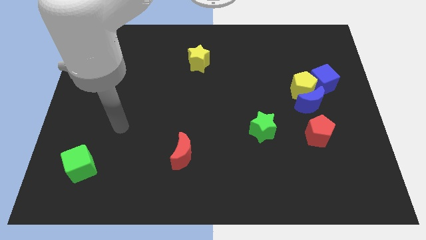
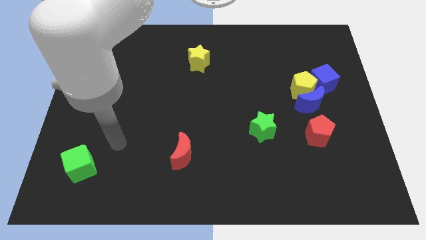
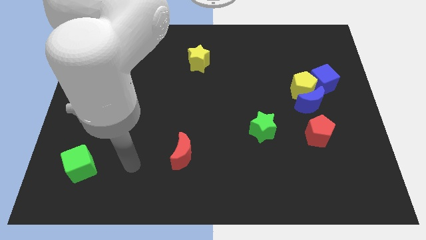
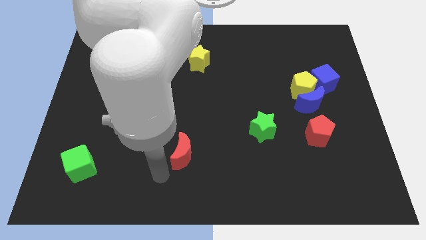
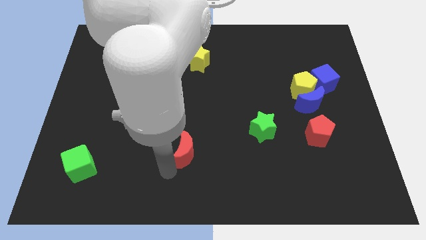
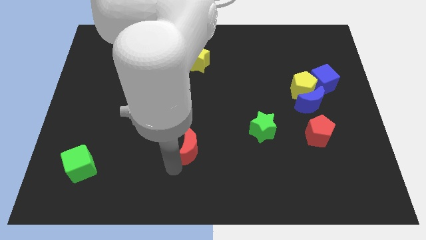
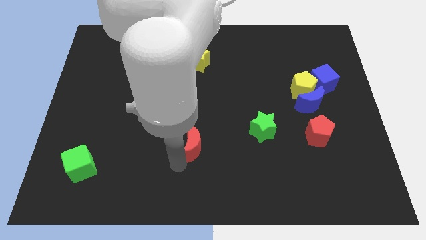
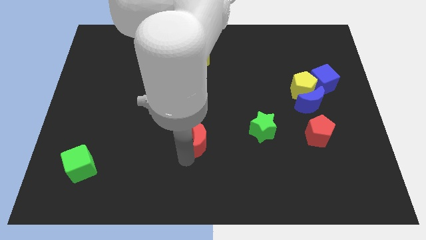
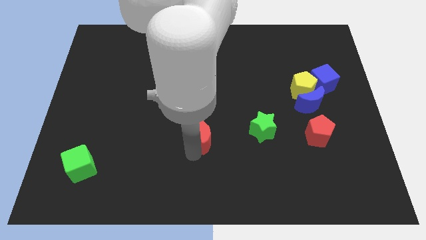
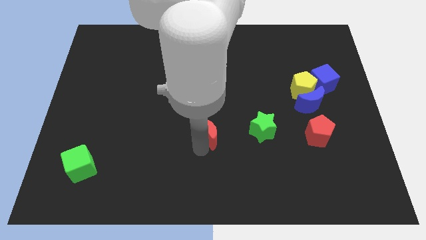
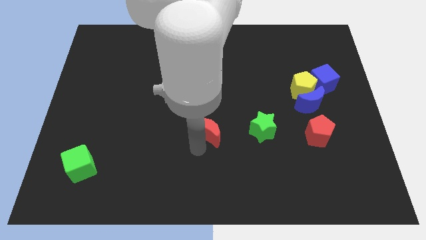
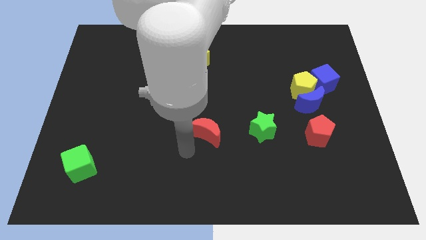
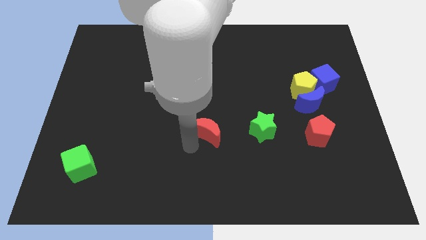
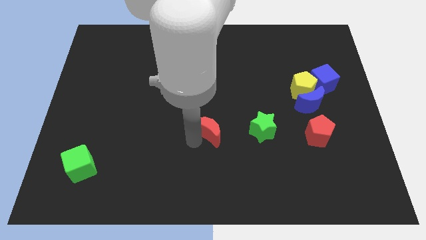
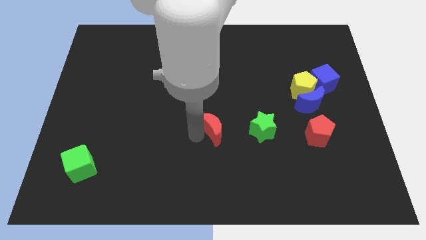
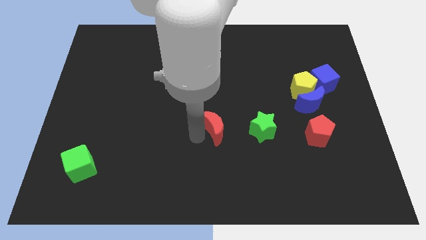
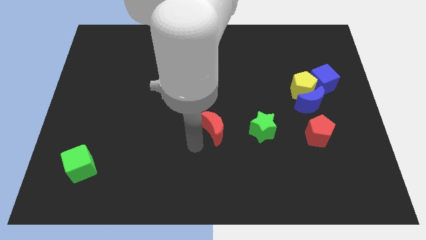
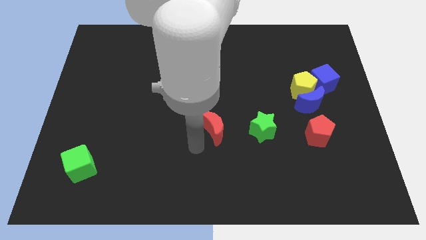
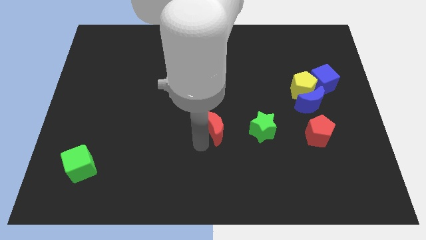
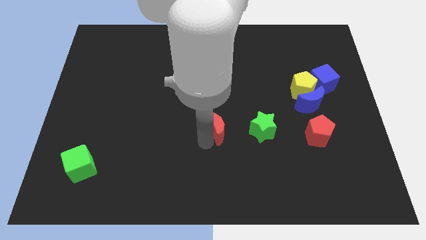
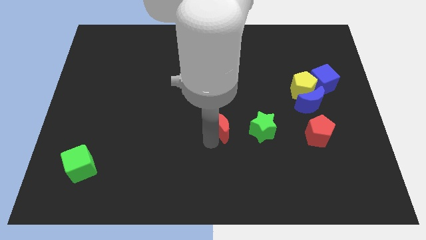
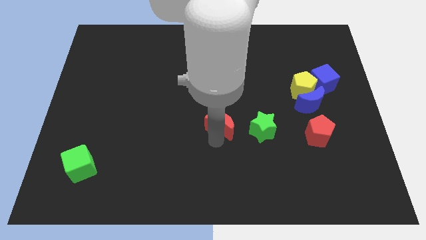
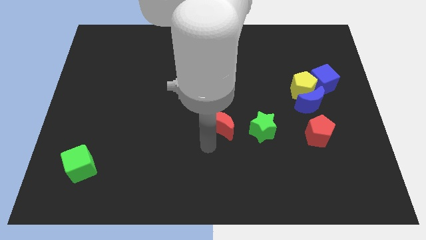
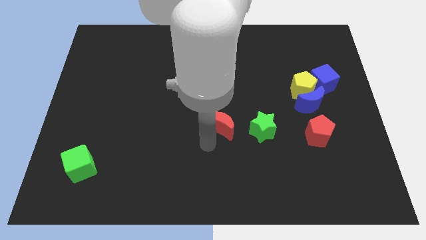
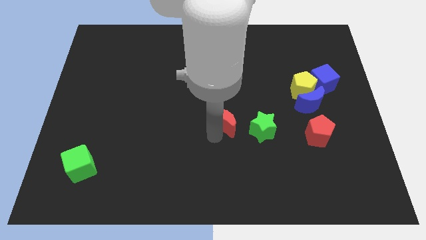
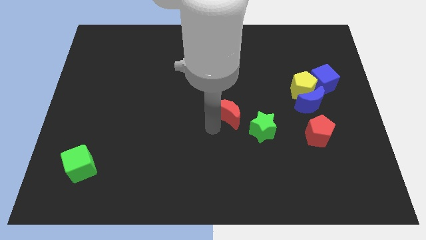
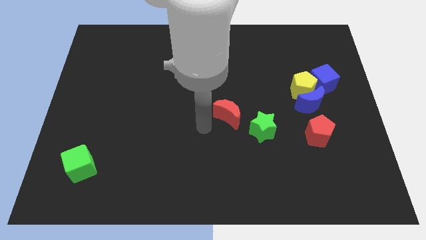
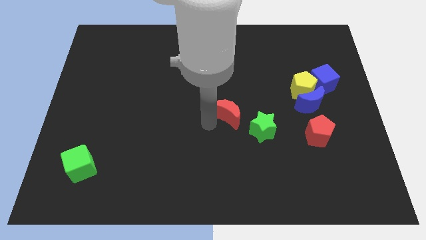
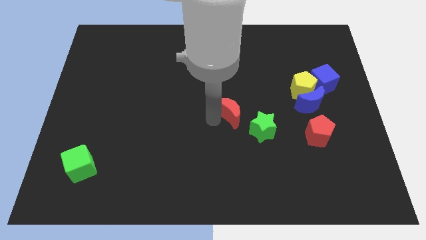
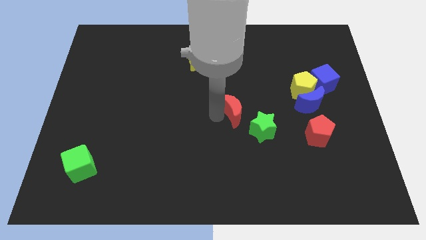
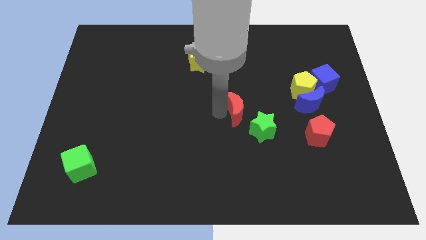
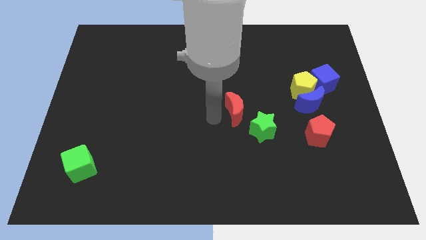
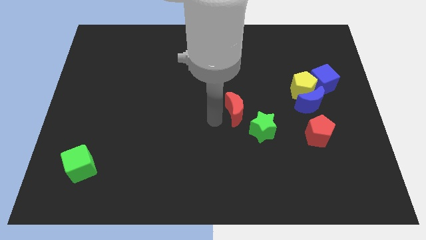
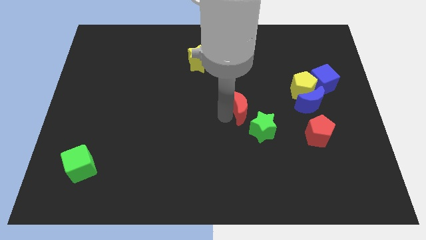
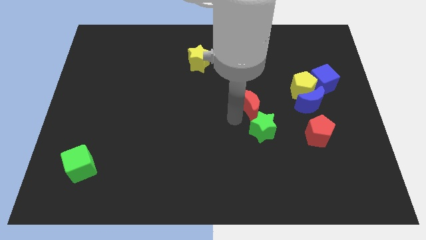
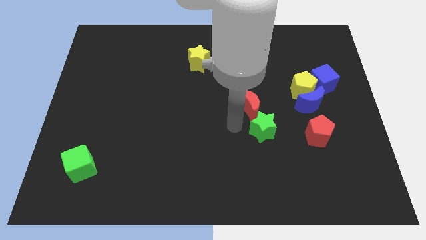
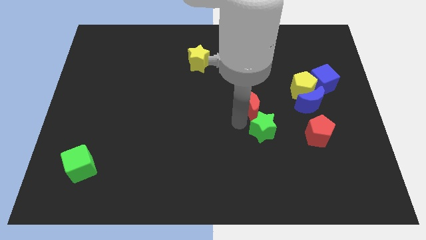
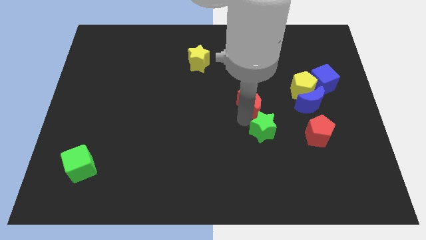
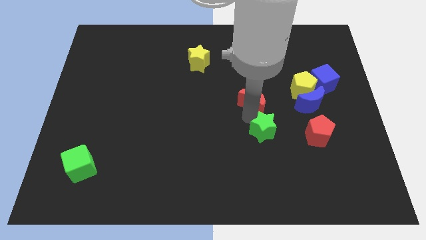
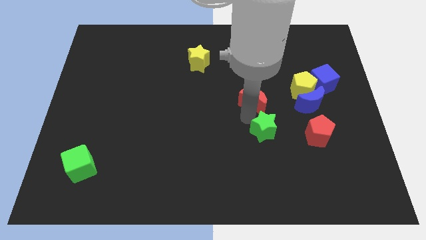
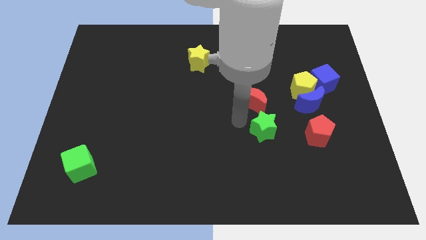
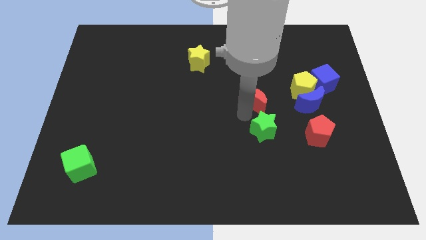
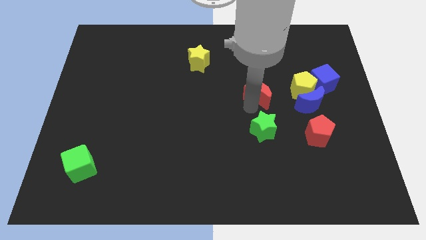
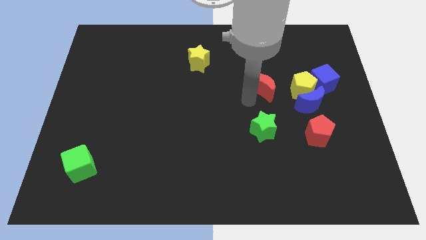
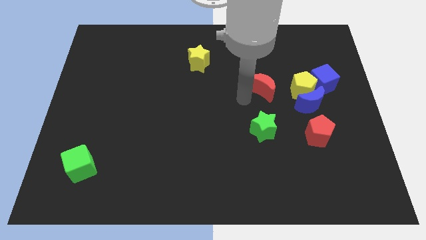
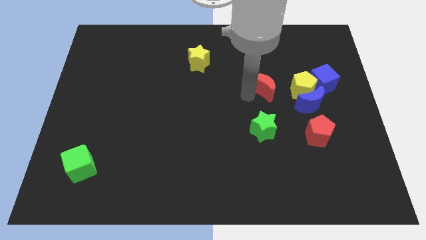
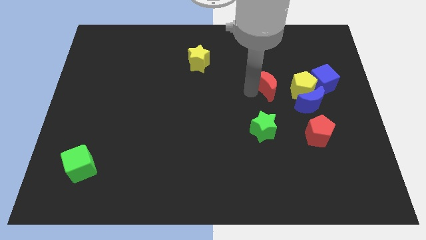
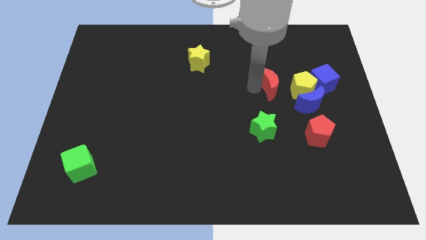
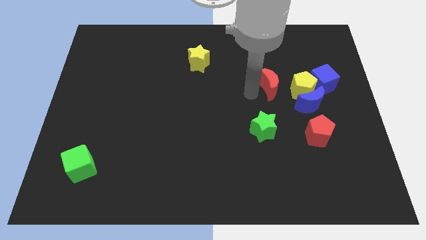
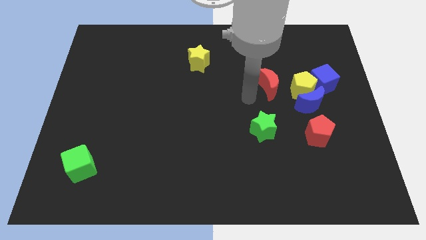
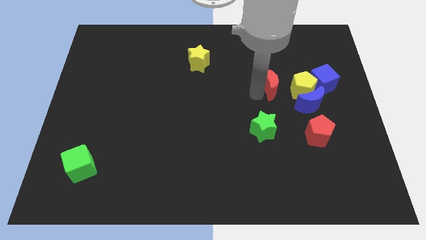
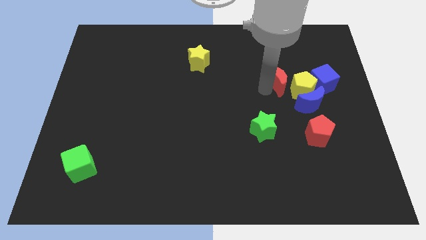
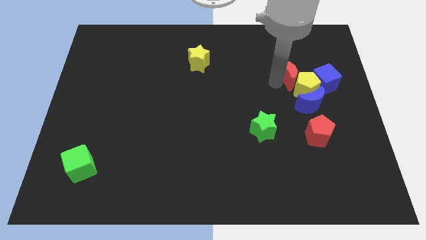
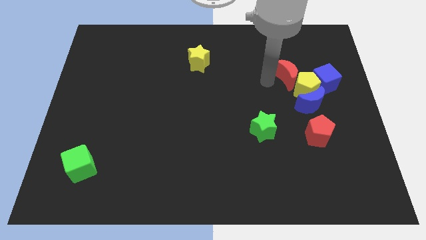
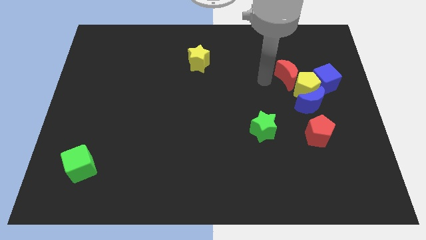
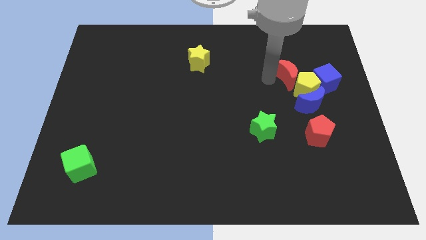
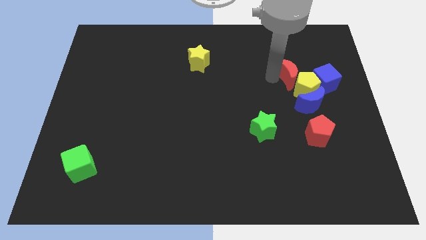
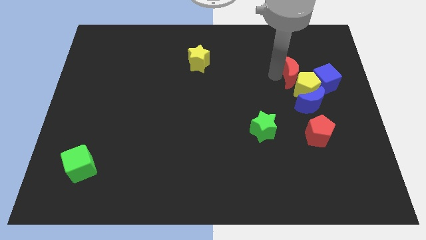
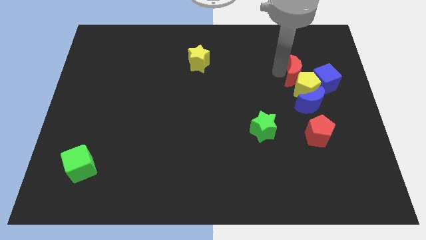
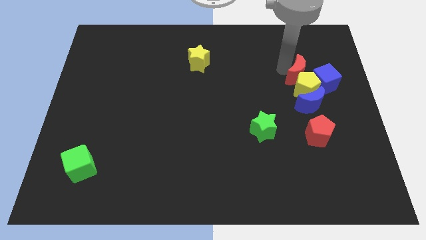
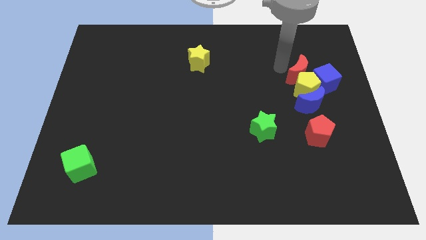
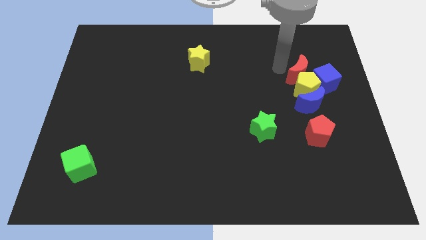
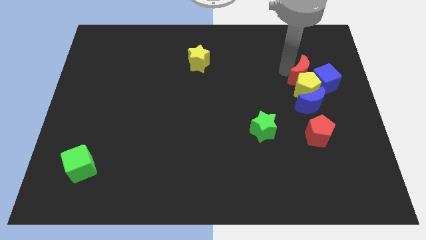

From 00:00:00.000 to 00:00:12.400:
push the red moon towards the blue cube

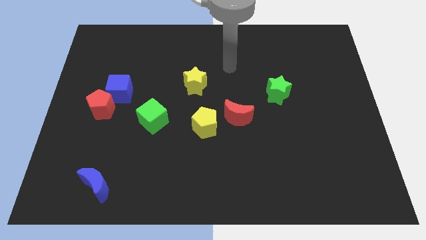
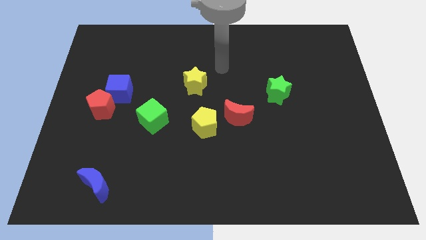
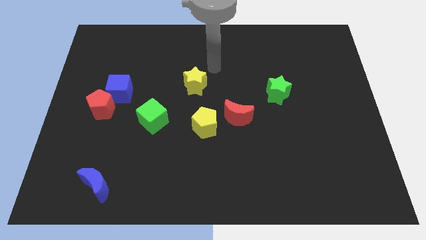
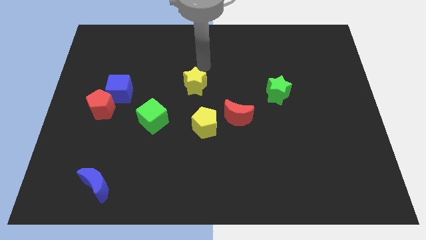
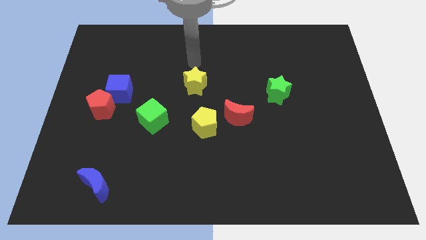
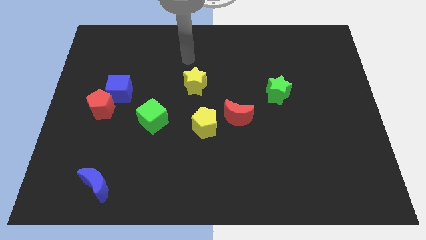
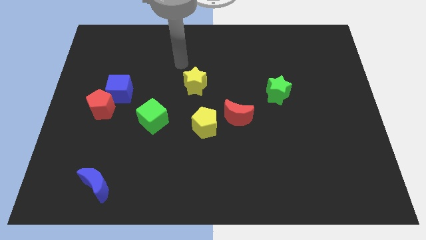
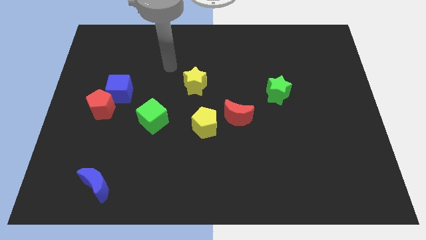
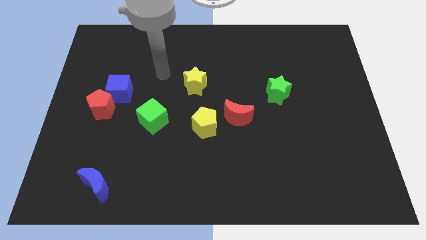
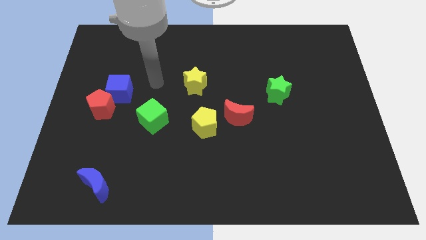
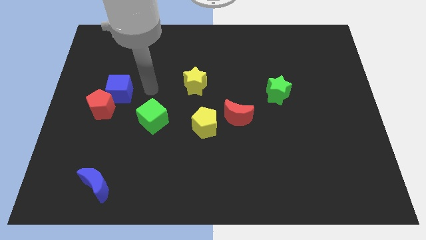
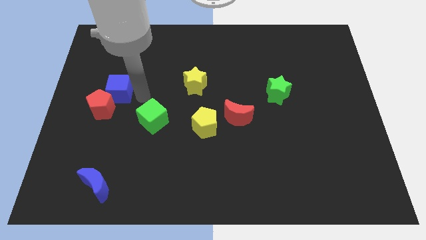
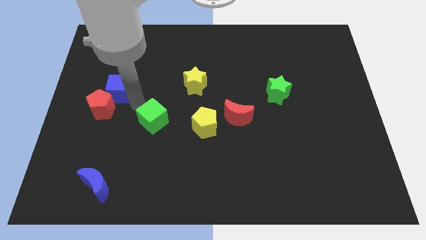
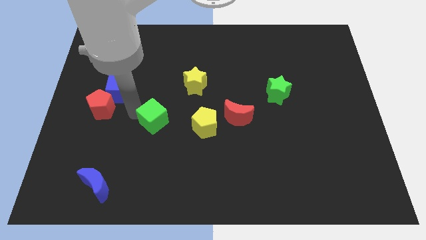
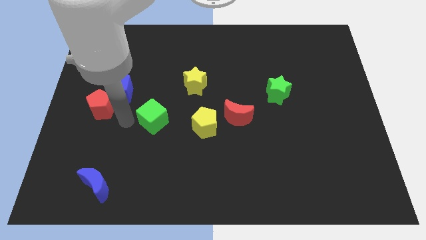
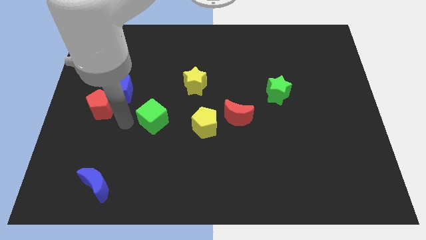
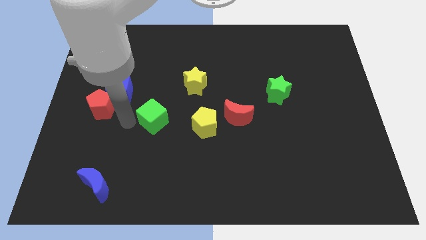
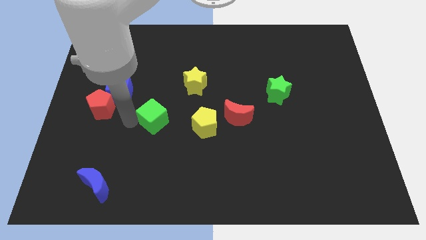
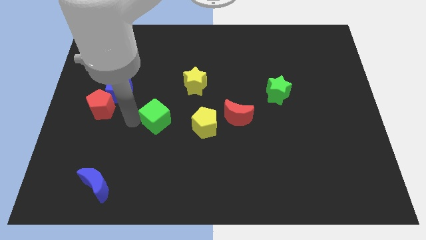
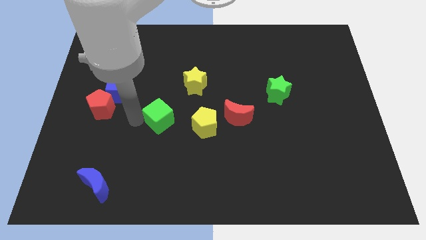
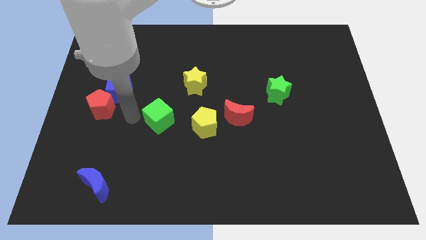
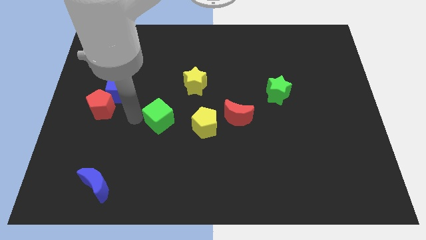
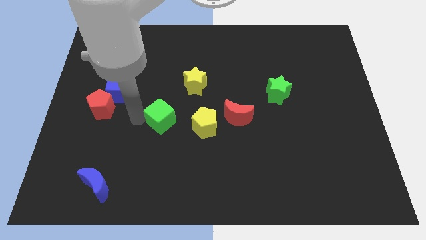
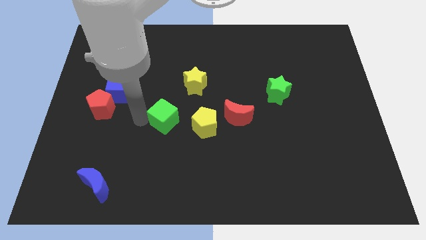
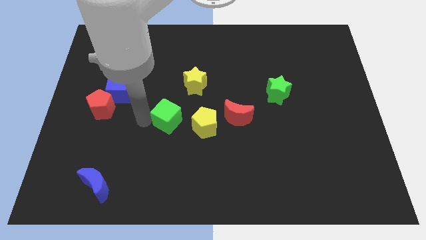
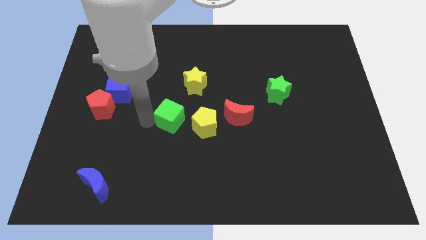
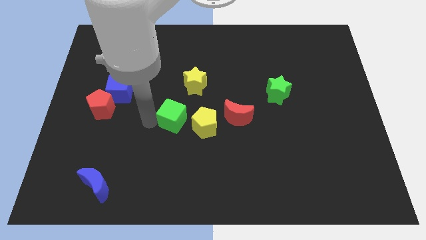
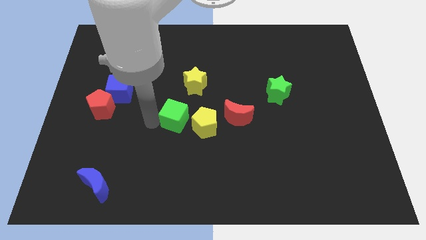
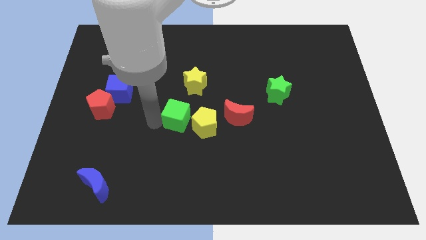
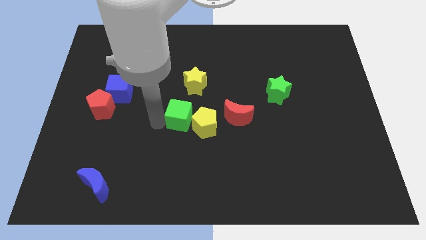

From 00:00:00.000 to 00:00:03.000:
put the green cube close to the yellow pentagon
